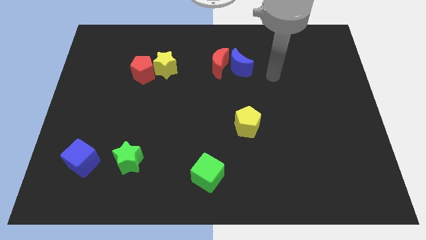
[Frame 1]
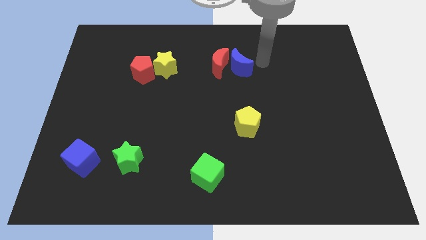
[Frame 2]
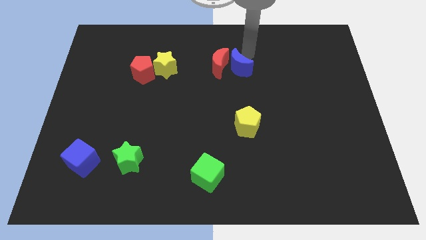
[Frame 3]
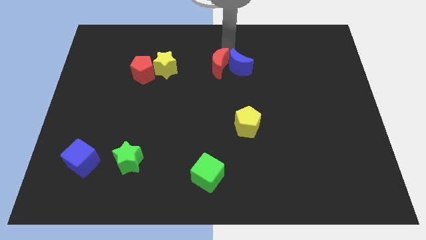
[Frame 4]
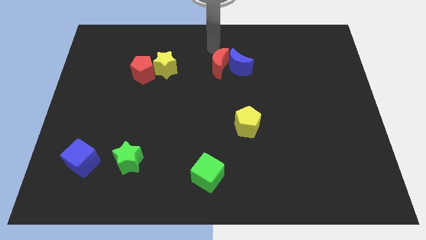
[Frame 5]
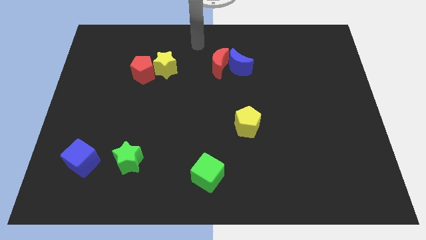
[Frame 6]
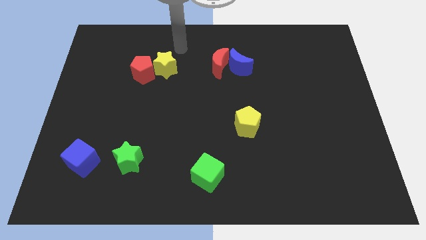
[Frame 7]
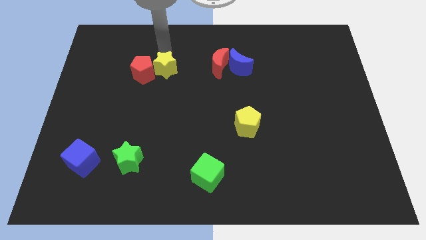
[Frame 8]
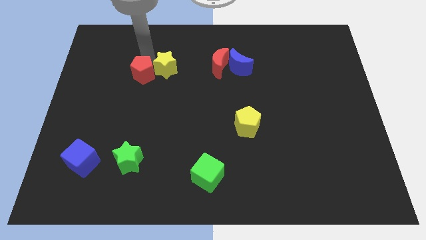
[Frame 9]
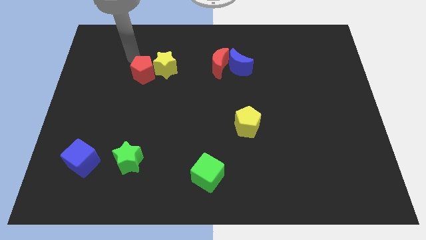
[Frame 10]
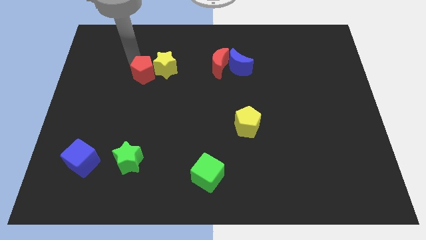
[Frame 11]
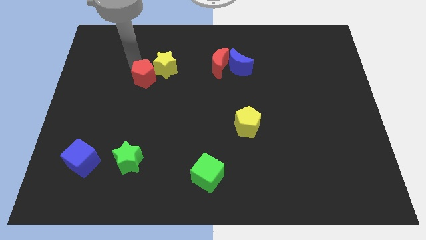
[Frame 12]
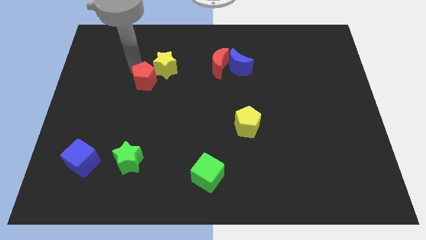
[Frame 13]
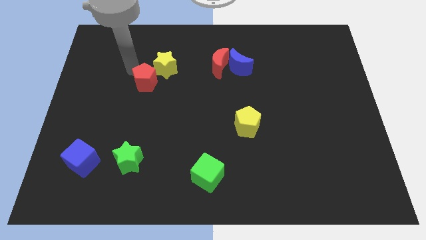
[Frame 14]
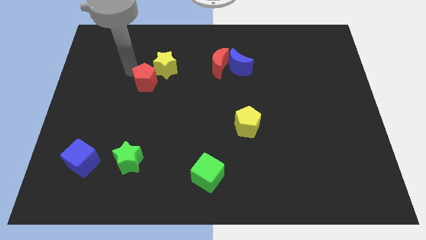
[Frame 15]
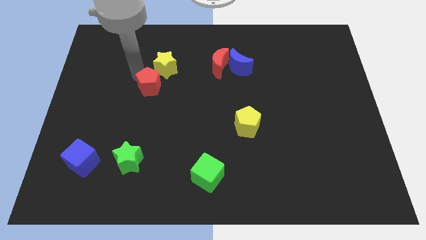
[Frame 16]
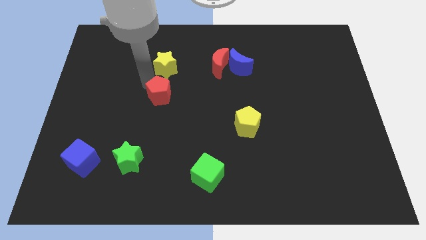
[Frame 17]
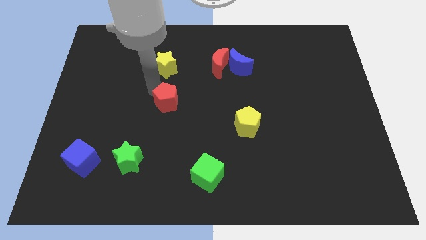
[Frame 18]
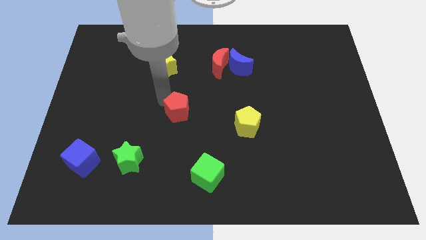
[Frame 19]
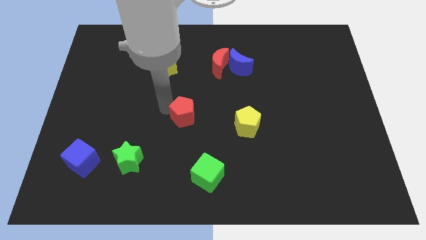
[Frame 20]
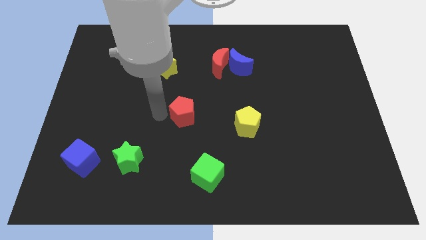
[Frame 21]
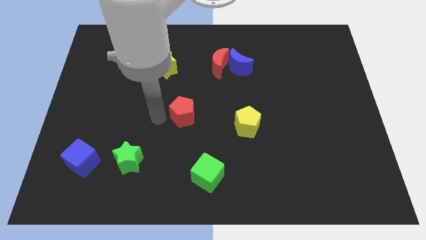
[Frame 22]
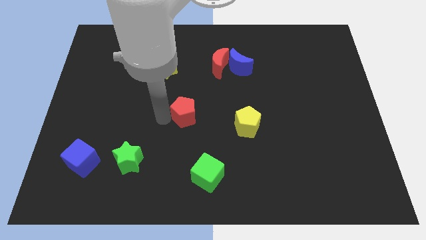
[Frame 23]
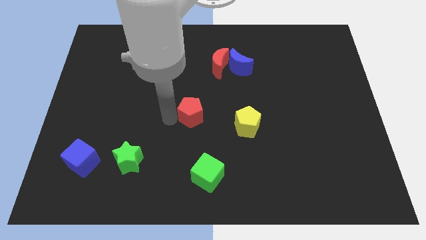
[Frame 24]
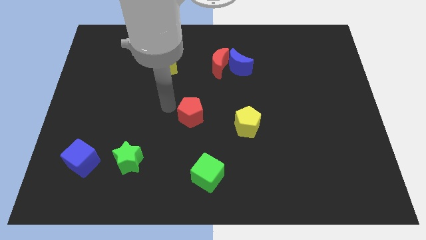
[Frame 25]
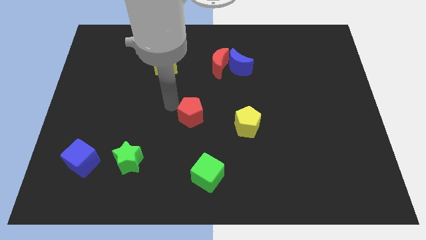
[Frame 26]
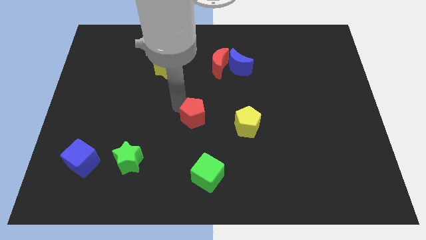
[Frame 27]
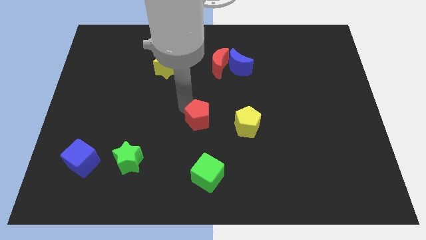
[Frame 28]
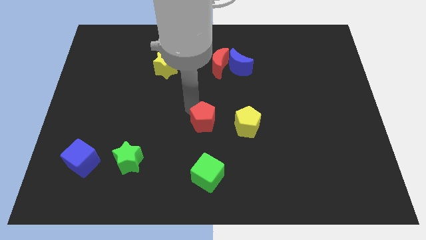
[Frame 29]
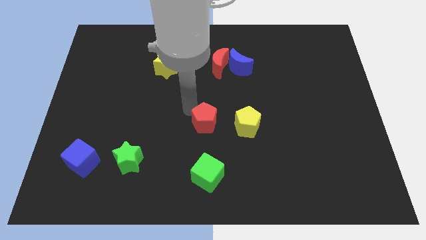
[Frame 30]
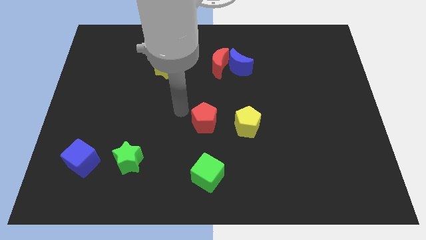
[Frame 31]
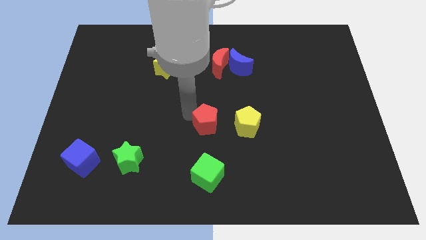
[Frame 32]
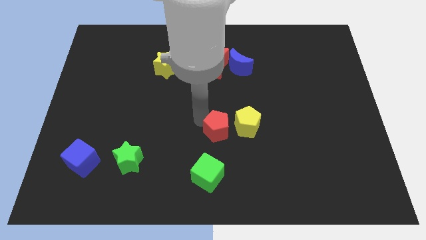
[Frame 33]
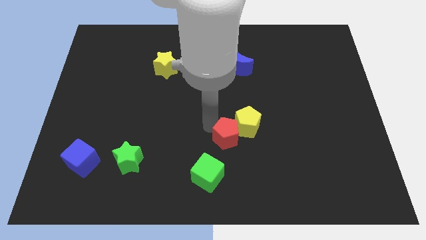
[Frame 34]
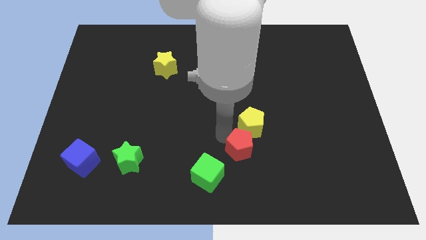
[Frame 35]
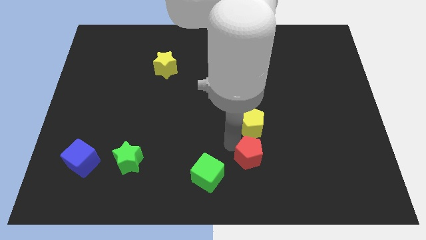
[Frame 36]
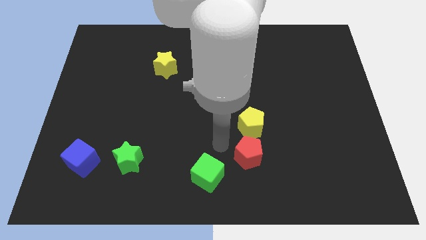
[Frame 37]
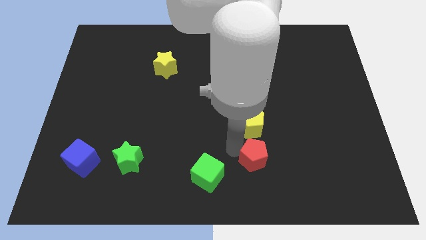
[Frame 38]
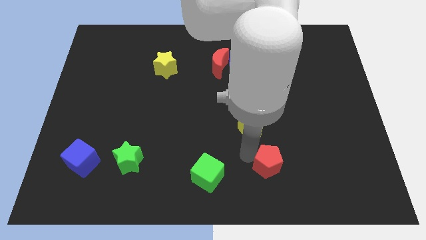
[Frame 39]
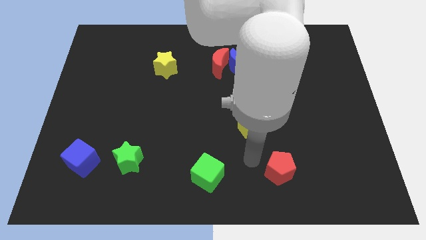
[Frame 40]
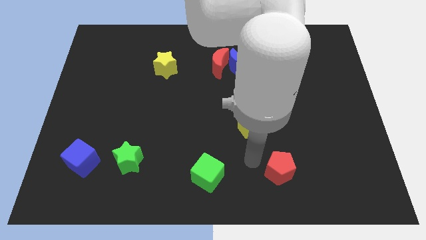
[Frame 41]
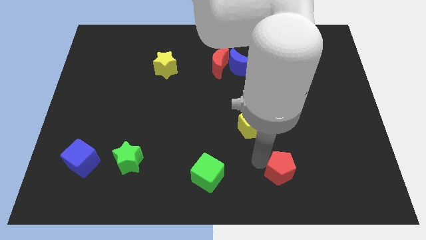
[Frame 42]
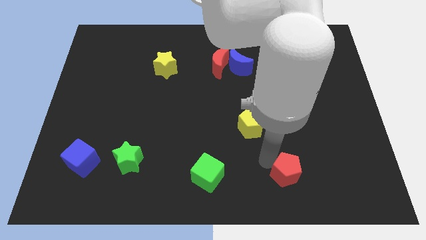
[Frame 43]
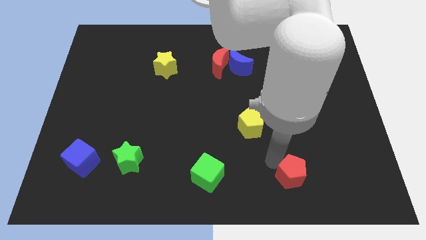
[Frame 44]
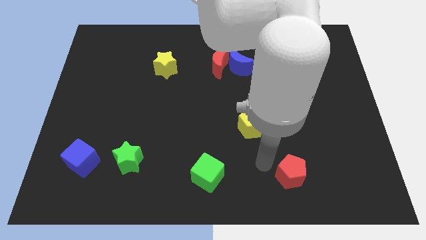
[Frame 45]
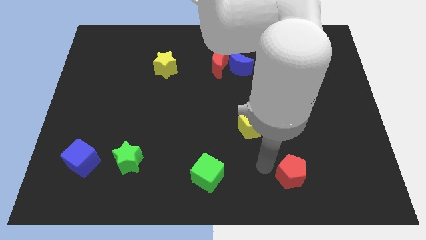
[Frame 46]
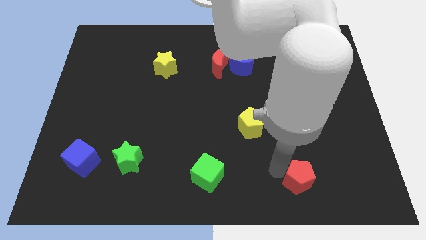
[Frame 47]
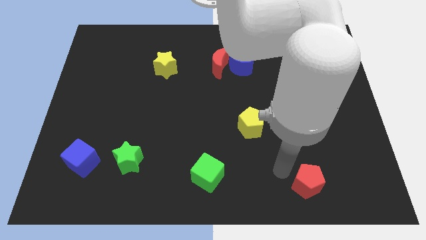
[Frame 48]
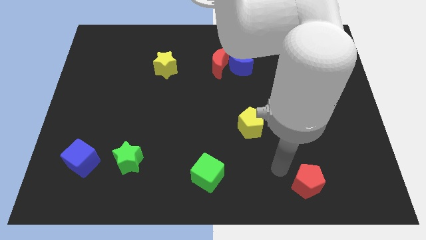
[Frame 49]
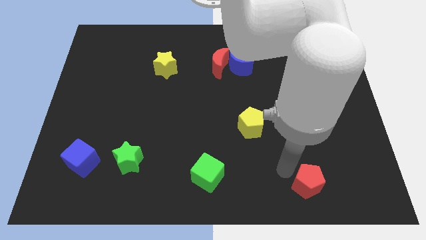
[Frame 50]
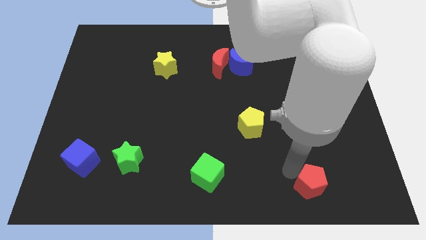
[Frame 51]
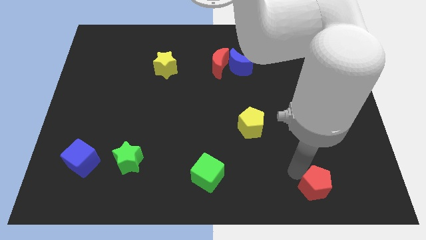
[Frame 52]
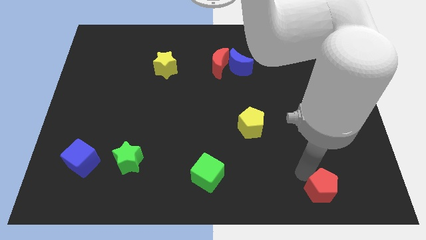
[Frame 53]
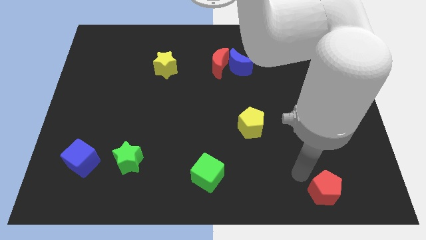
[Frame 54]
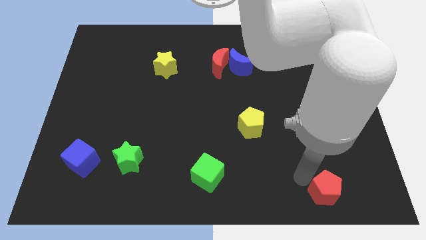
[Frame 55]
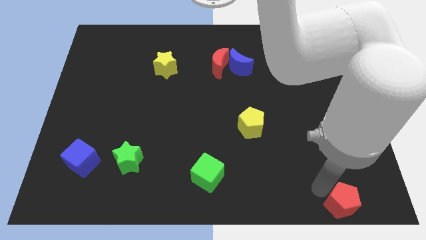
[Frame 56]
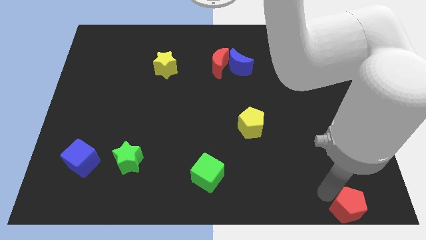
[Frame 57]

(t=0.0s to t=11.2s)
put the red pentagon to the lower right corner

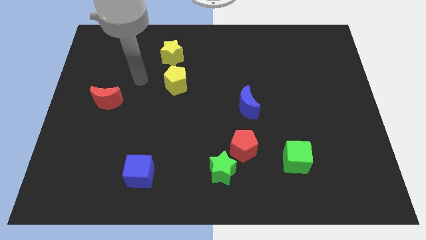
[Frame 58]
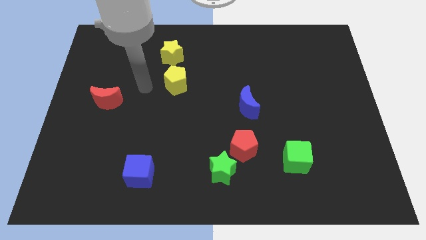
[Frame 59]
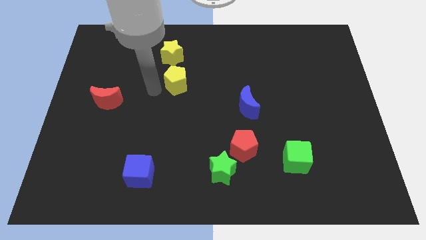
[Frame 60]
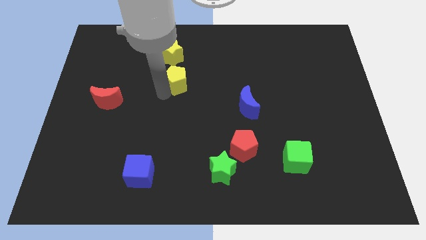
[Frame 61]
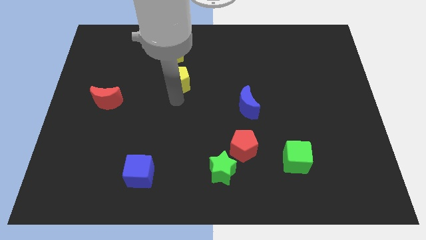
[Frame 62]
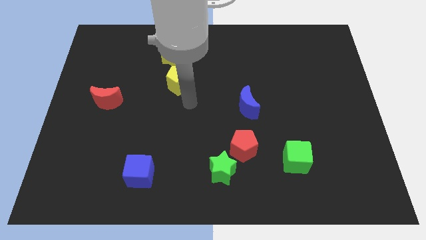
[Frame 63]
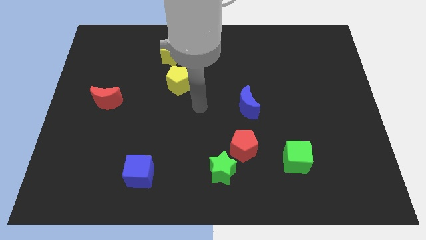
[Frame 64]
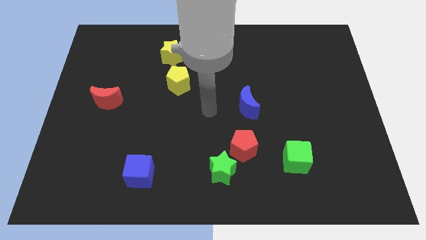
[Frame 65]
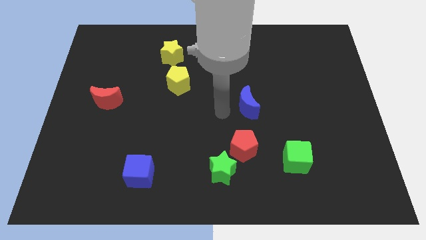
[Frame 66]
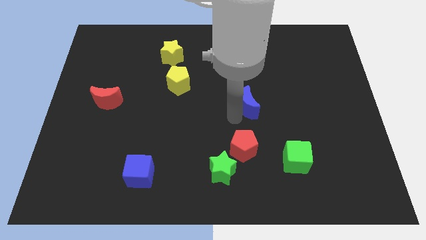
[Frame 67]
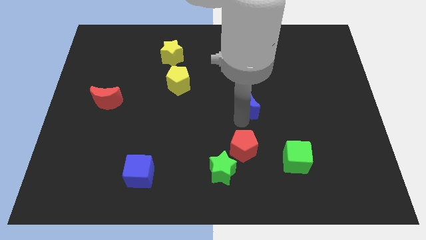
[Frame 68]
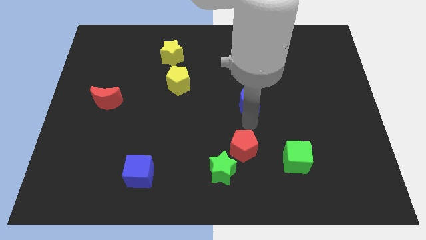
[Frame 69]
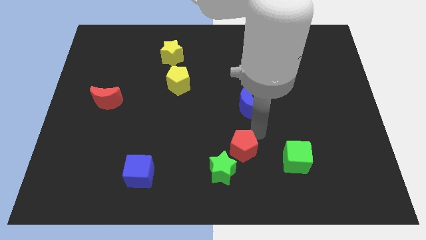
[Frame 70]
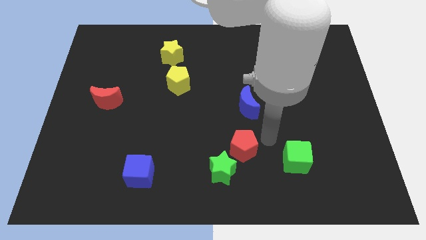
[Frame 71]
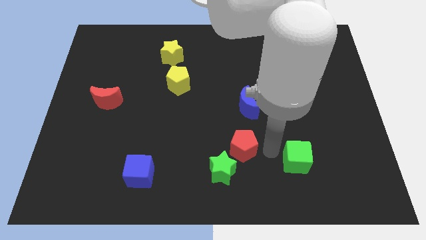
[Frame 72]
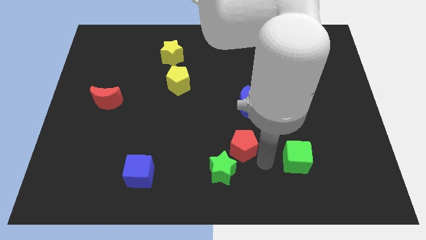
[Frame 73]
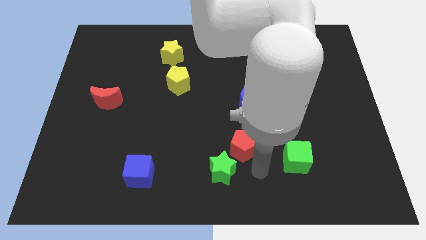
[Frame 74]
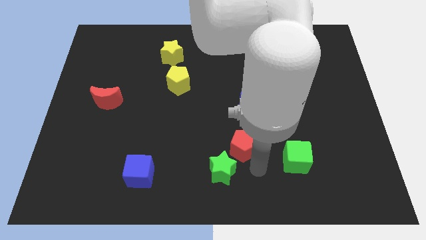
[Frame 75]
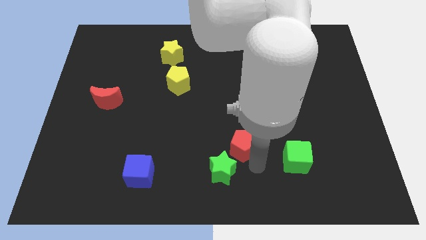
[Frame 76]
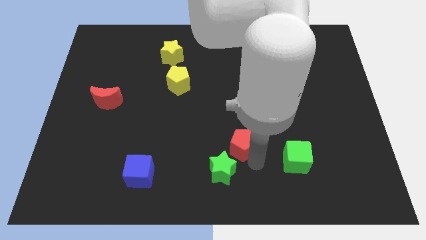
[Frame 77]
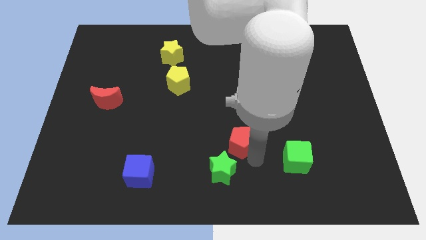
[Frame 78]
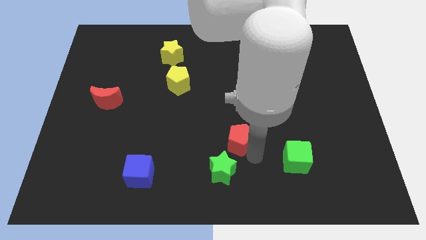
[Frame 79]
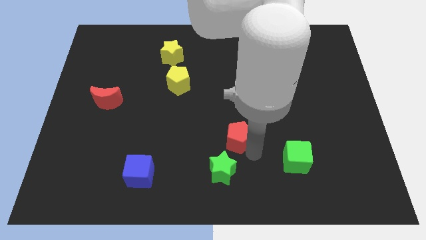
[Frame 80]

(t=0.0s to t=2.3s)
slide the red pentagon to the center
